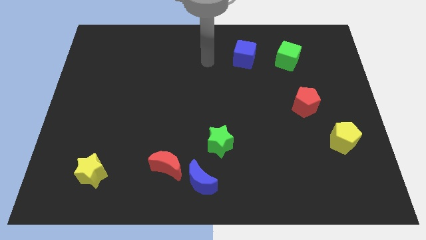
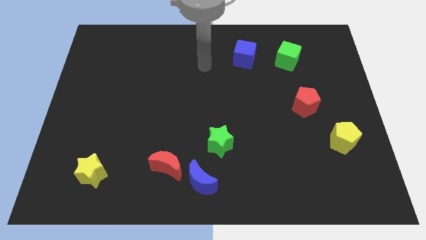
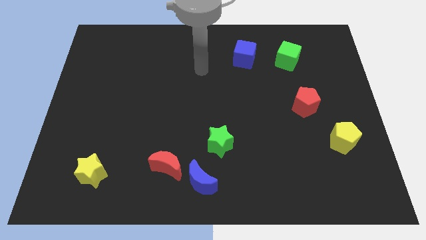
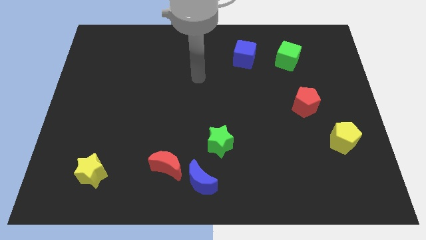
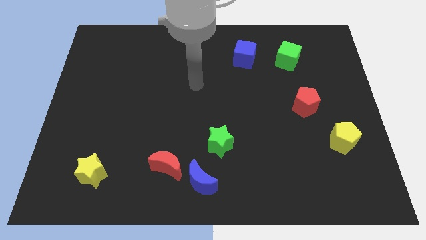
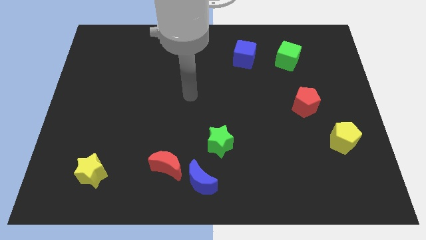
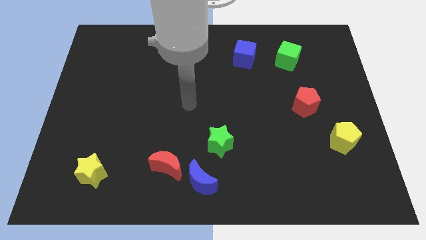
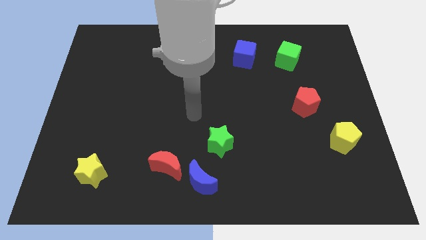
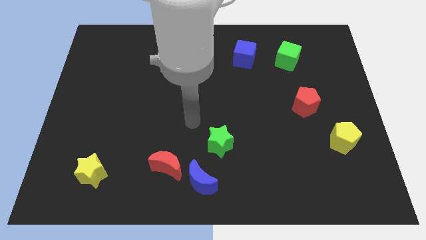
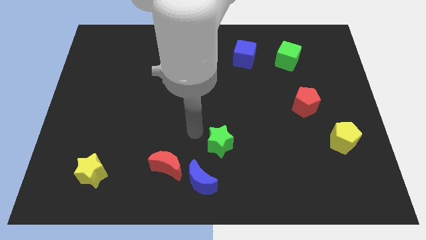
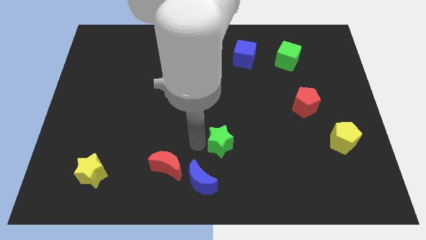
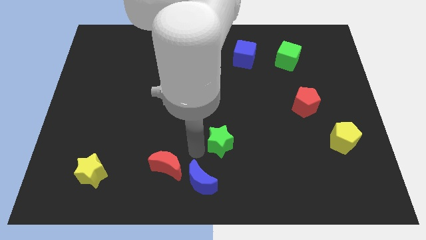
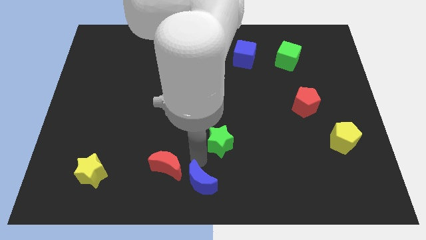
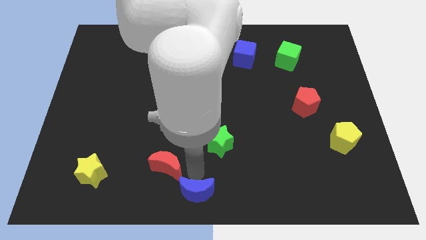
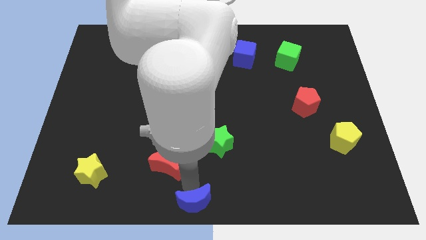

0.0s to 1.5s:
pull the red moon apart from the blue moon

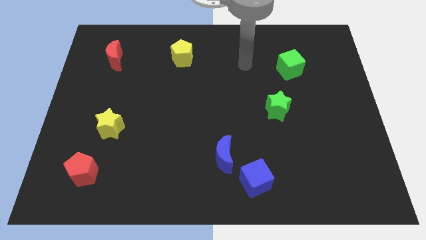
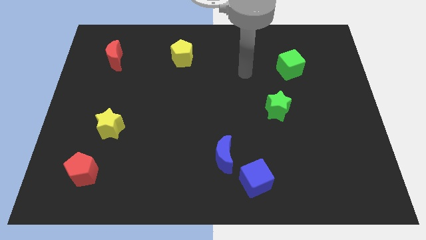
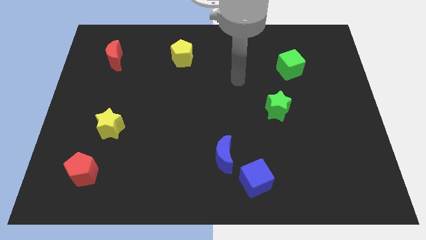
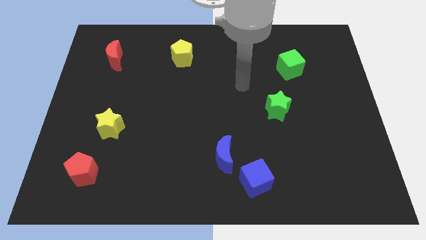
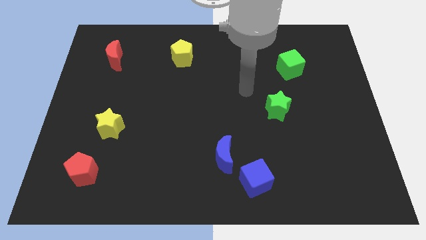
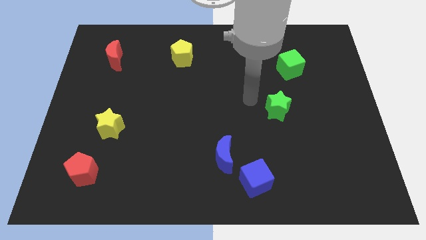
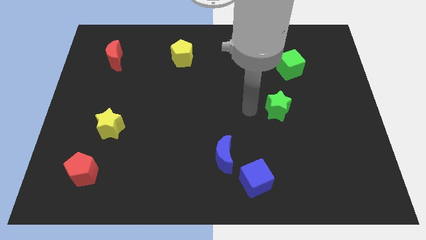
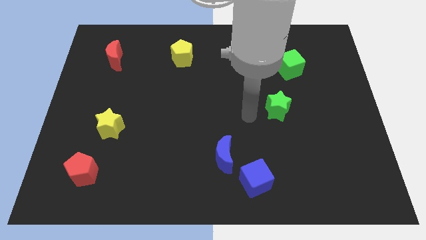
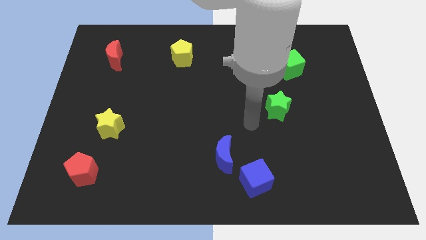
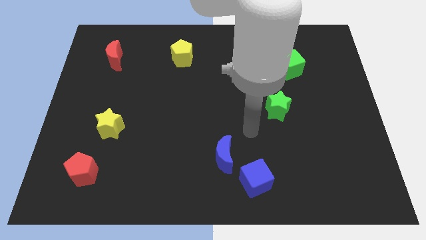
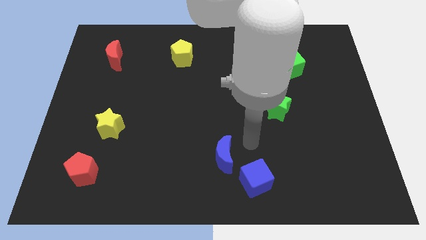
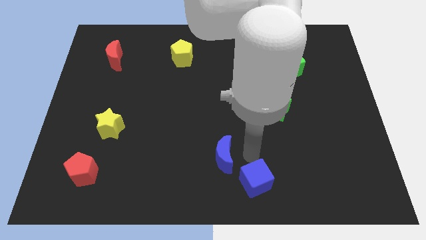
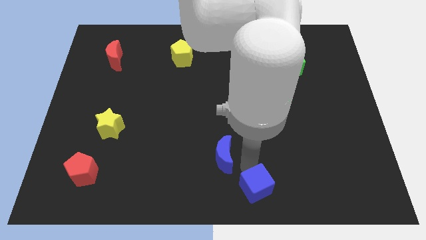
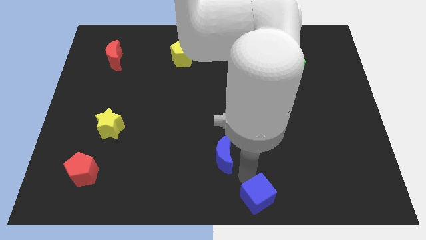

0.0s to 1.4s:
move the blue moon away from the blue cube

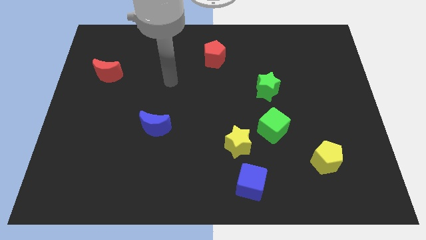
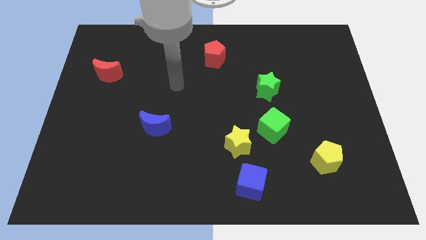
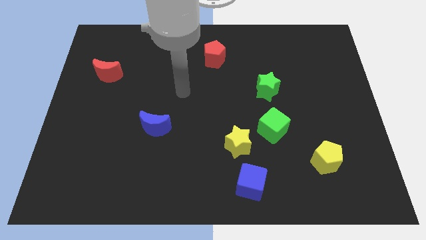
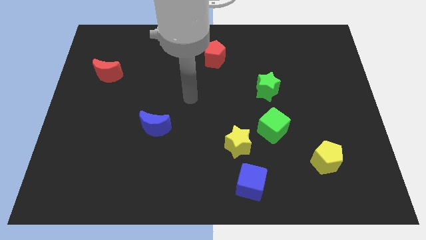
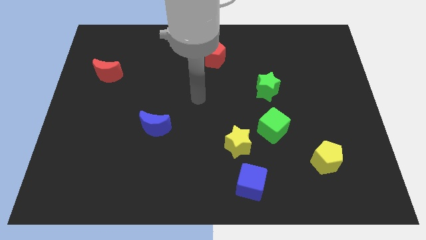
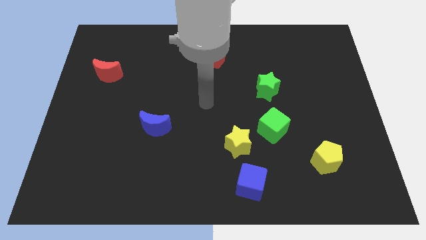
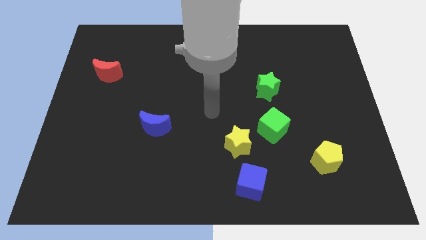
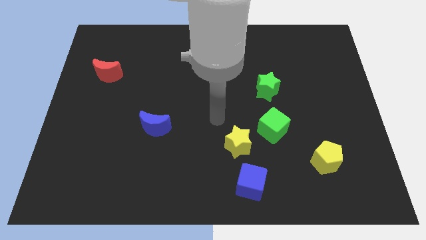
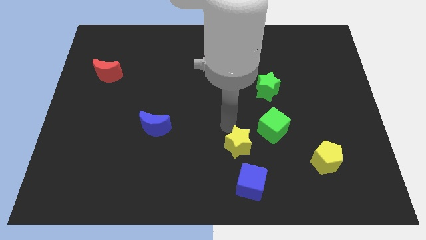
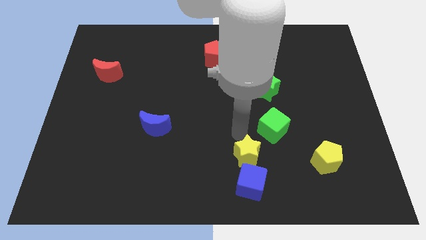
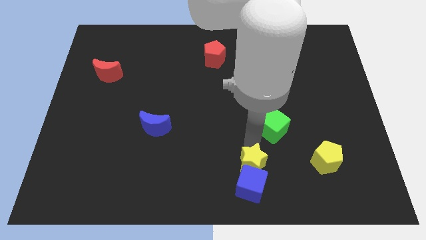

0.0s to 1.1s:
pull the green cube apart from the yellow star

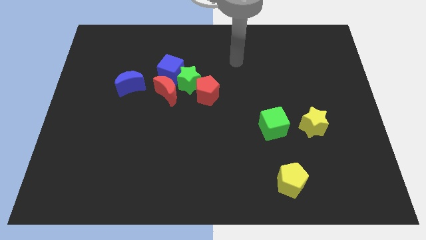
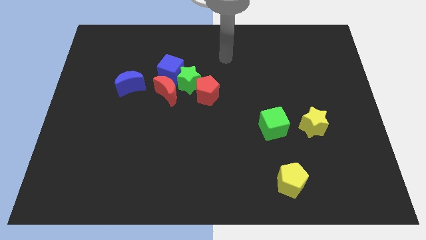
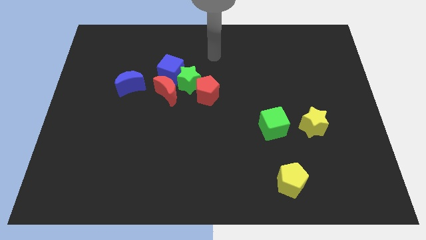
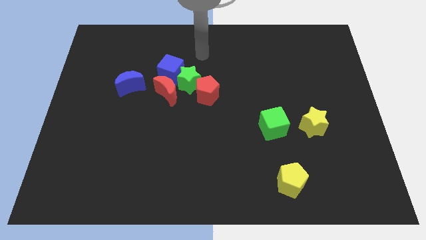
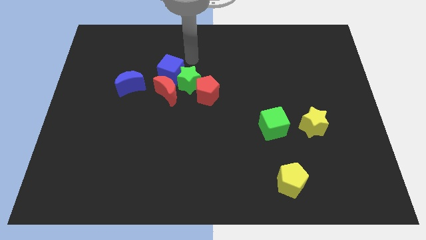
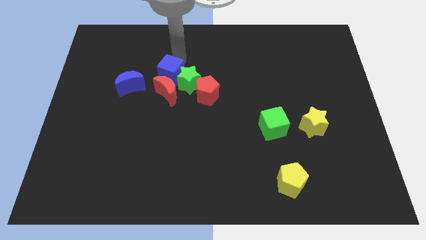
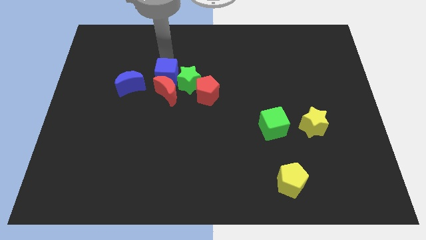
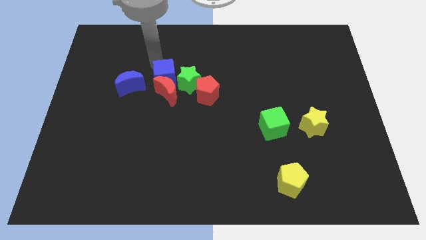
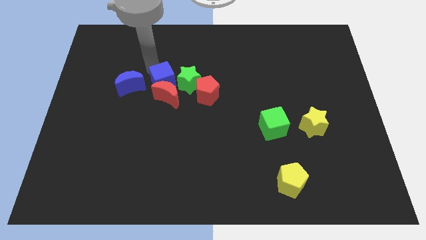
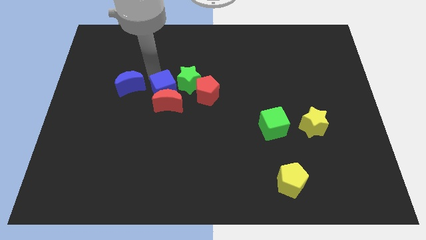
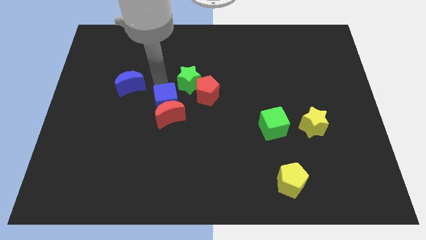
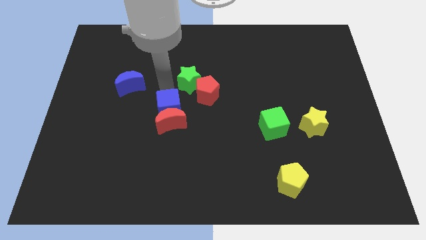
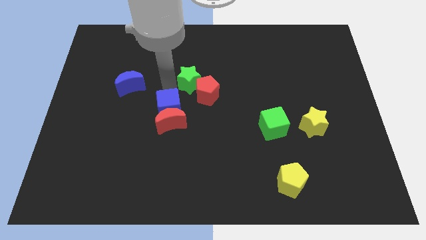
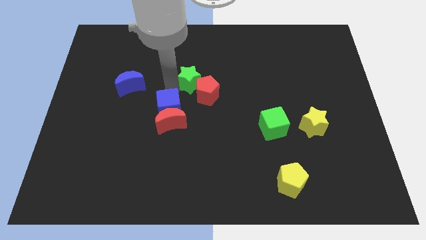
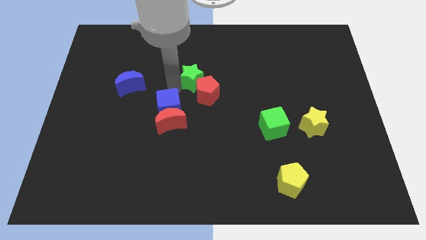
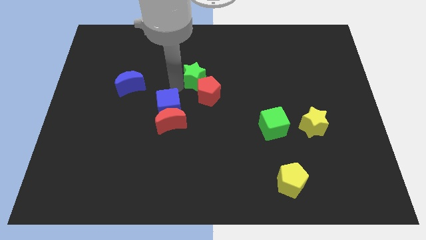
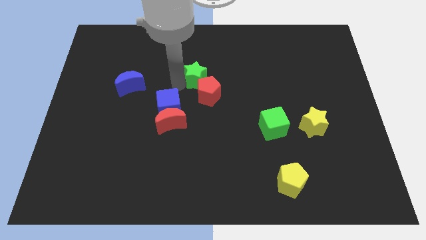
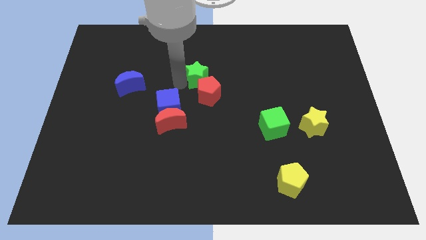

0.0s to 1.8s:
move the green star away from the group

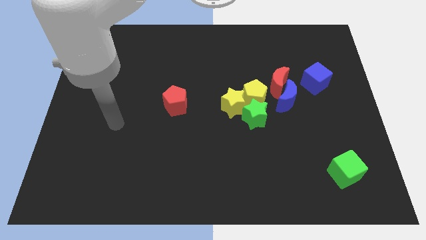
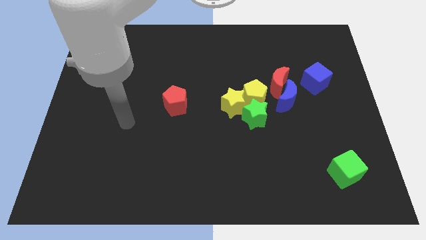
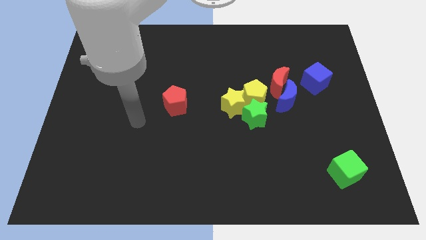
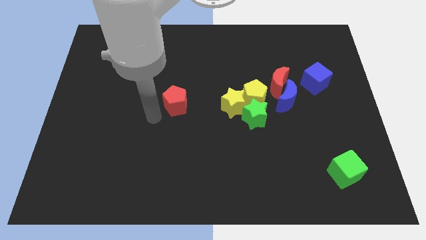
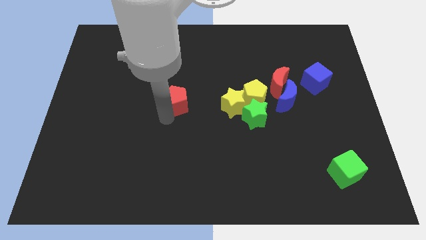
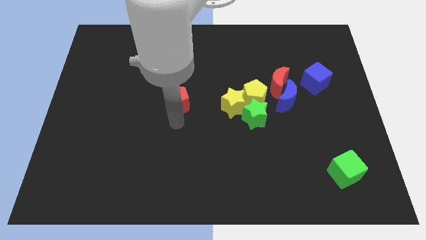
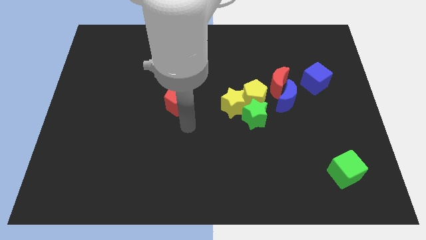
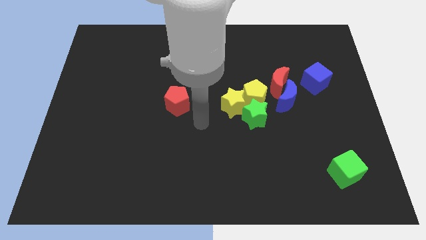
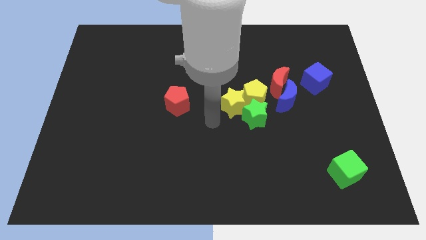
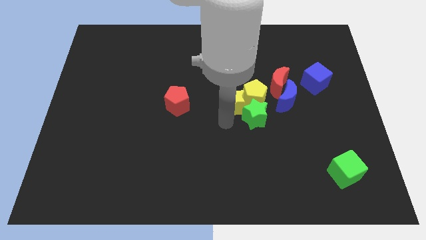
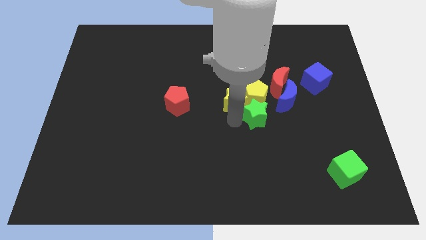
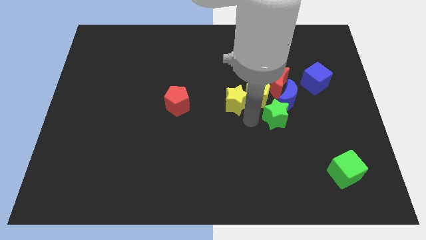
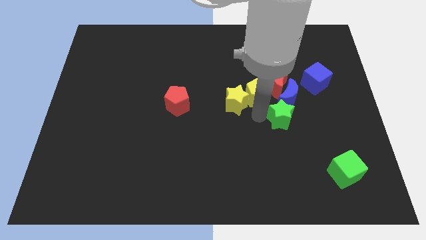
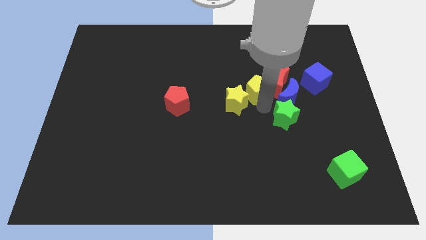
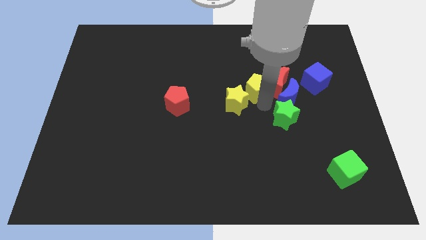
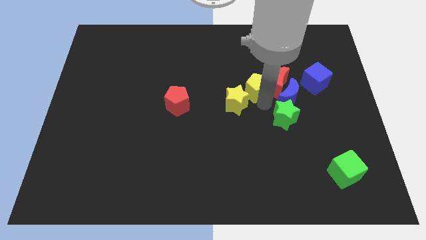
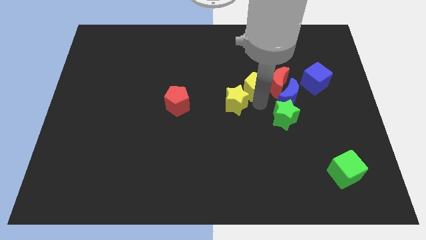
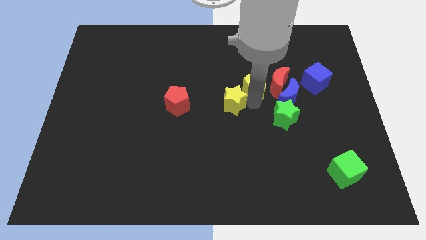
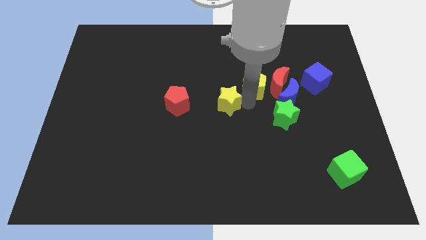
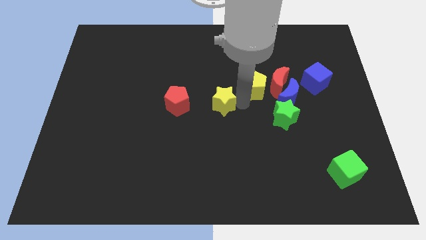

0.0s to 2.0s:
pull the yellow star apart from the yellow pentagon and green star

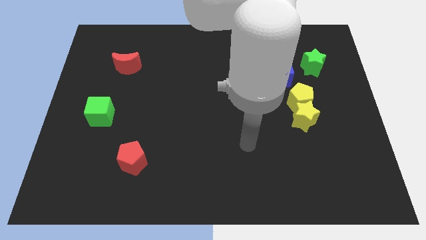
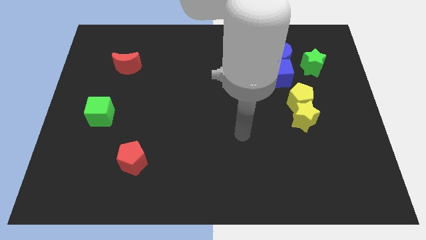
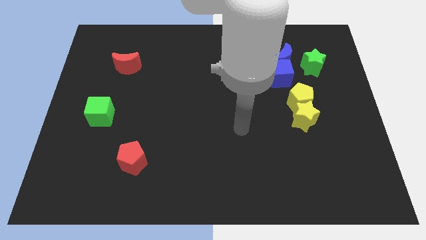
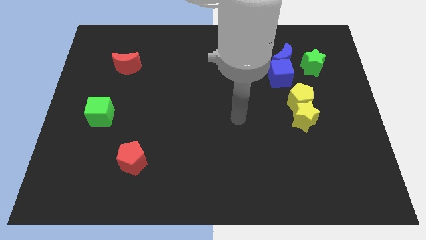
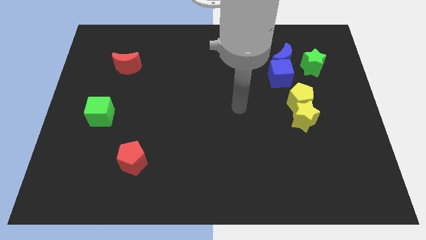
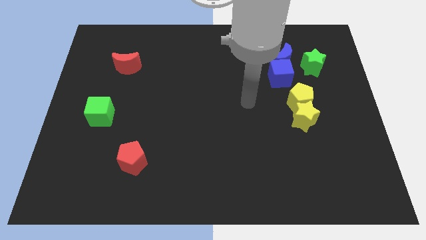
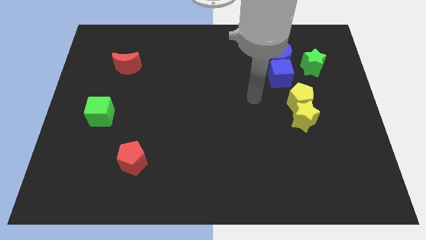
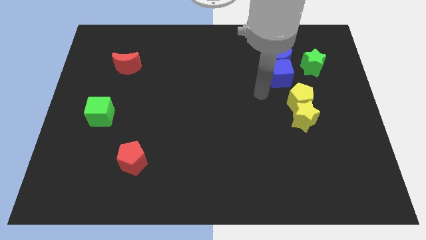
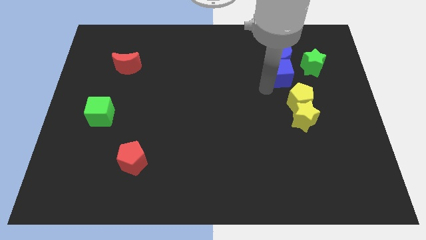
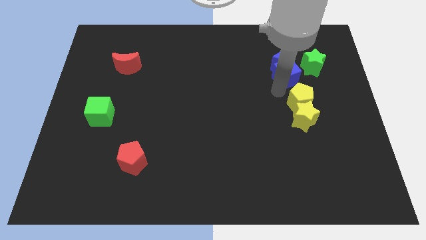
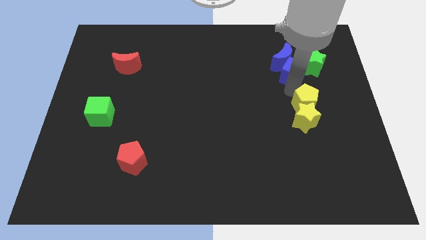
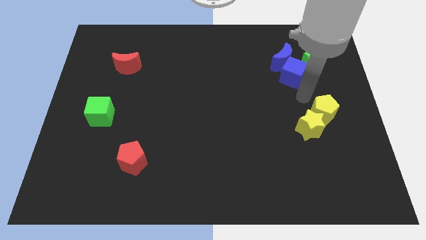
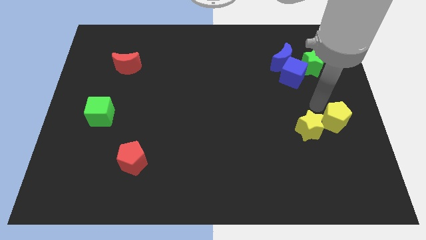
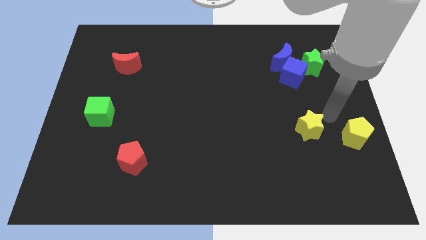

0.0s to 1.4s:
separate the yellow star from the yellow pentagon

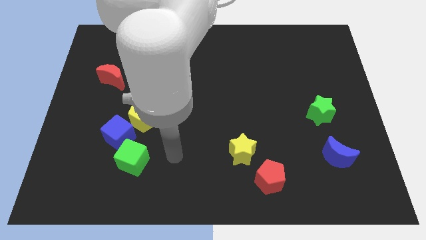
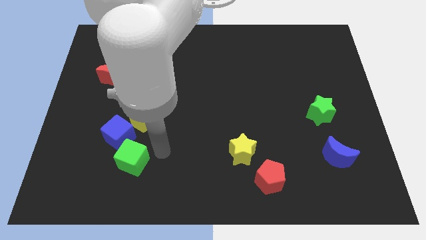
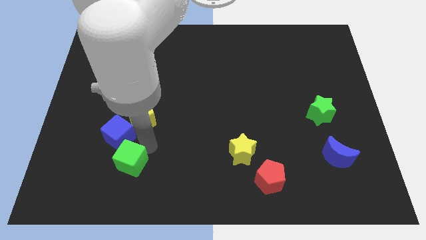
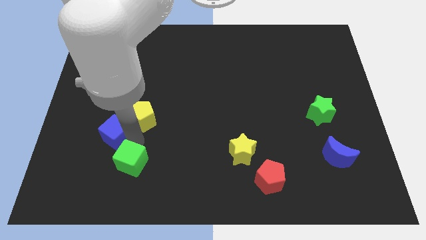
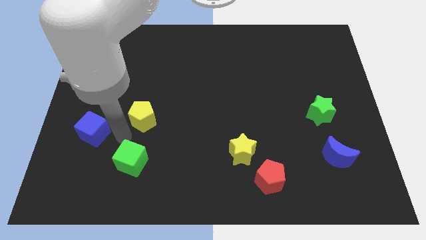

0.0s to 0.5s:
move the yellow pentagon away from the blue cube
